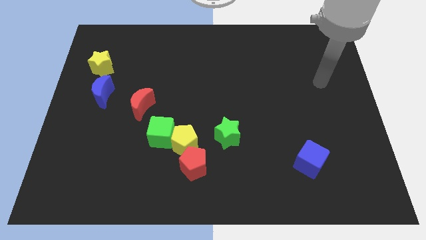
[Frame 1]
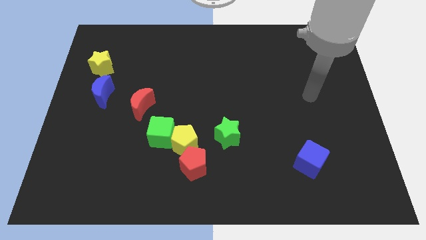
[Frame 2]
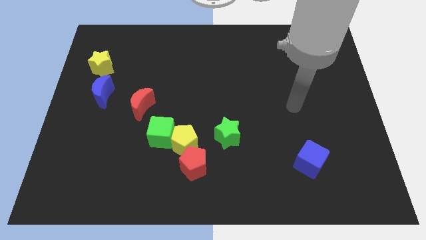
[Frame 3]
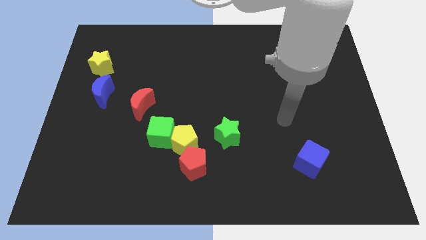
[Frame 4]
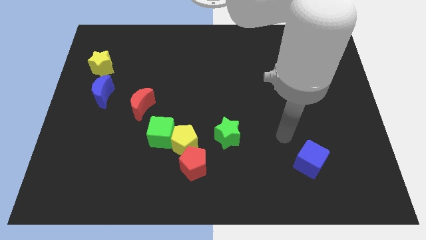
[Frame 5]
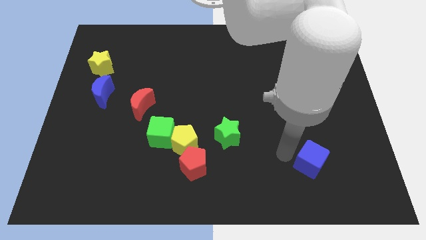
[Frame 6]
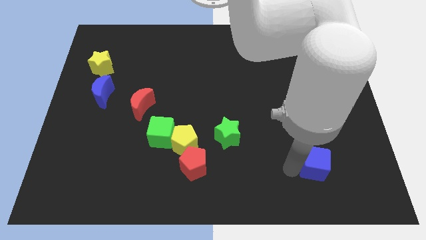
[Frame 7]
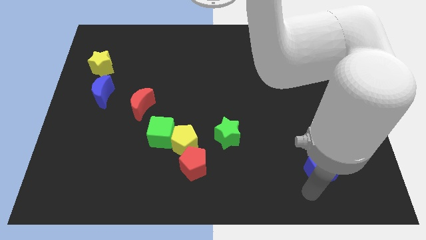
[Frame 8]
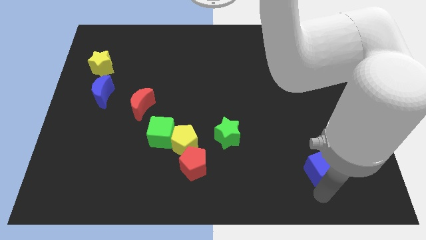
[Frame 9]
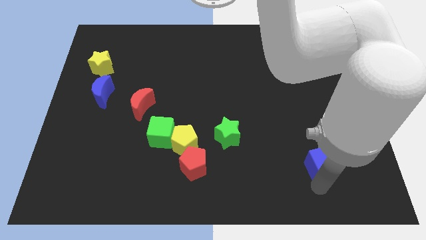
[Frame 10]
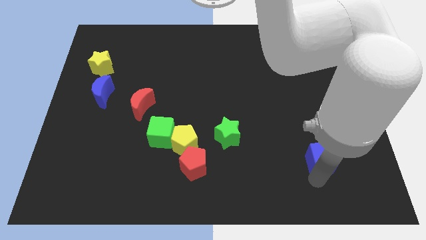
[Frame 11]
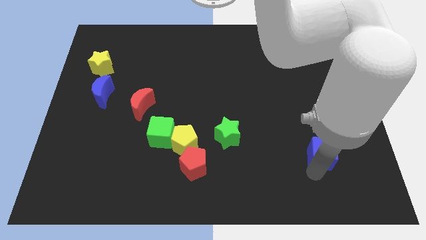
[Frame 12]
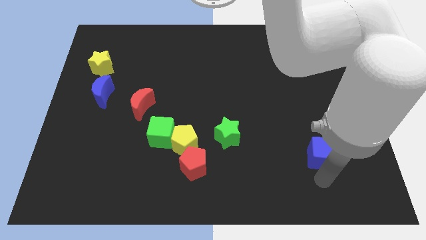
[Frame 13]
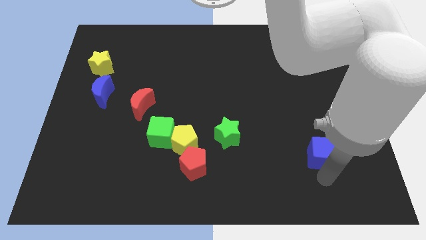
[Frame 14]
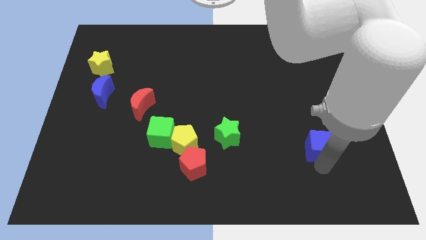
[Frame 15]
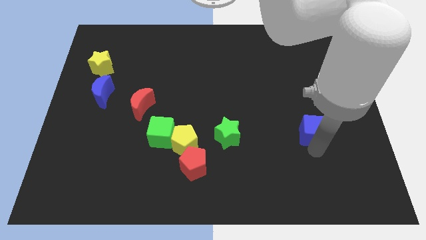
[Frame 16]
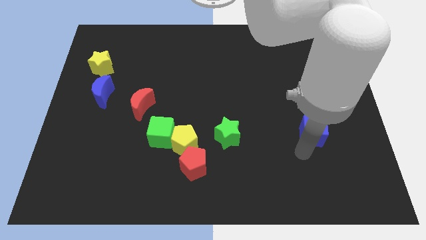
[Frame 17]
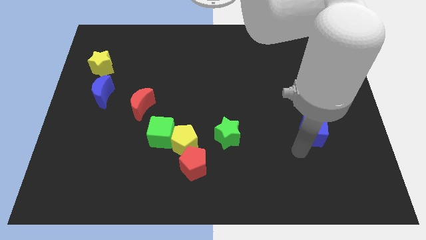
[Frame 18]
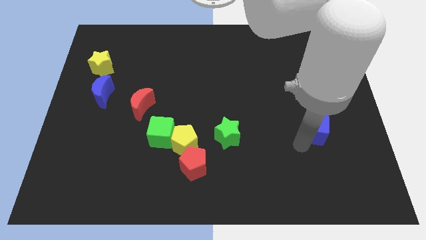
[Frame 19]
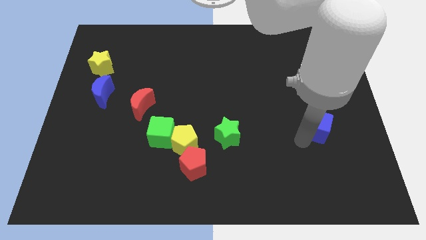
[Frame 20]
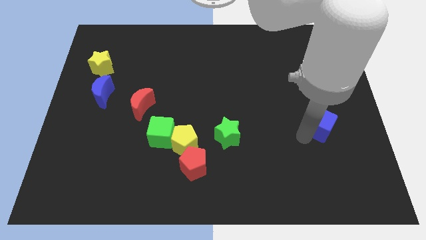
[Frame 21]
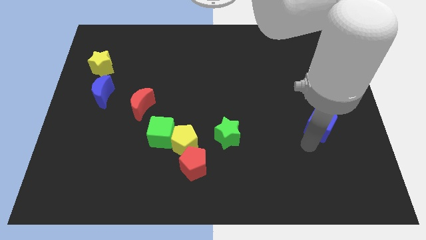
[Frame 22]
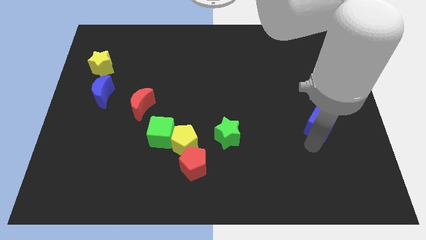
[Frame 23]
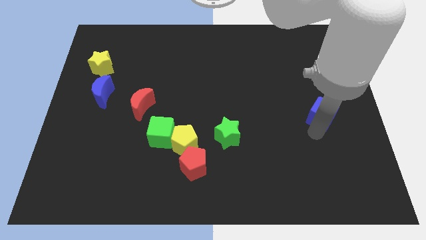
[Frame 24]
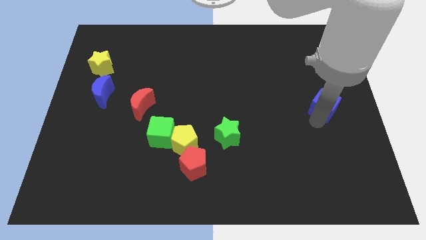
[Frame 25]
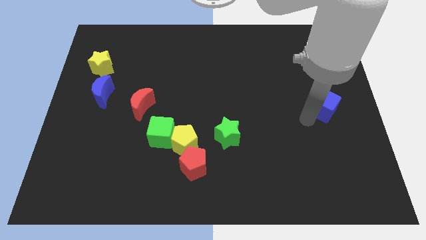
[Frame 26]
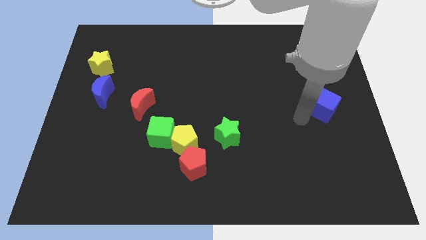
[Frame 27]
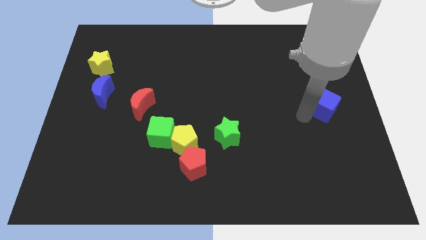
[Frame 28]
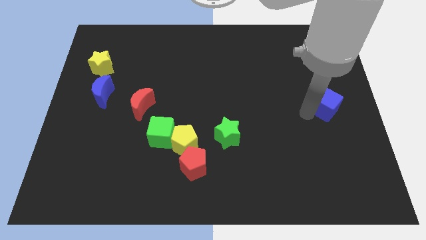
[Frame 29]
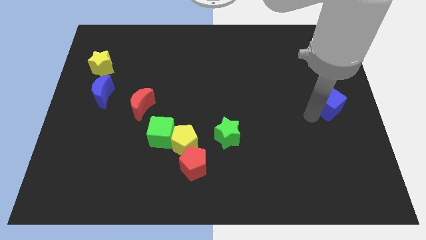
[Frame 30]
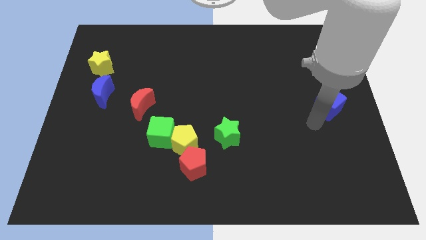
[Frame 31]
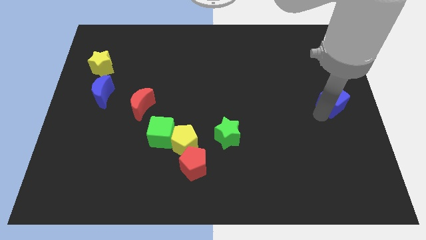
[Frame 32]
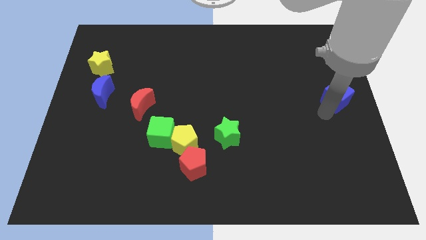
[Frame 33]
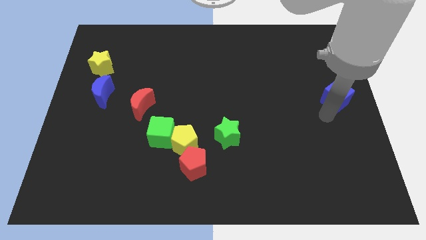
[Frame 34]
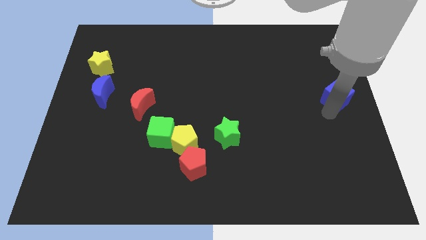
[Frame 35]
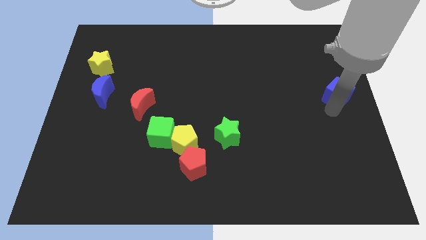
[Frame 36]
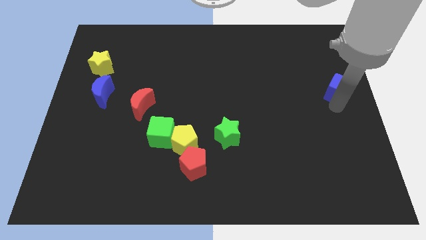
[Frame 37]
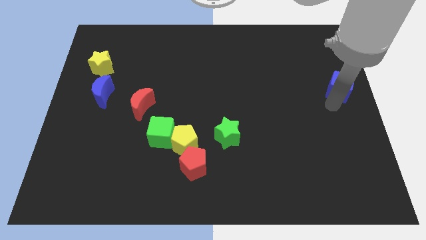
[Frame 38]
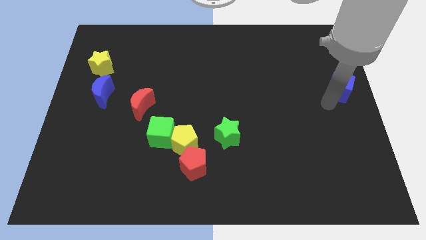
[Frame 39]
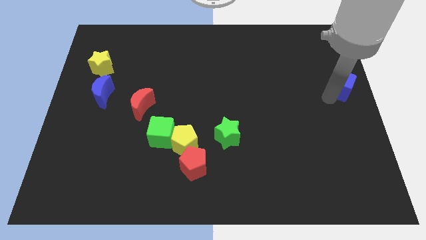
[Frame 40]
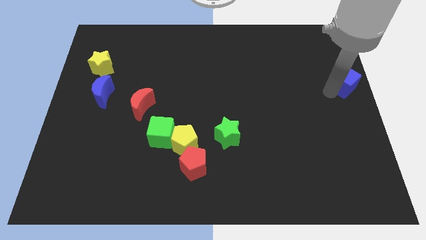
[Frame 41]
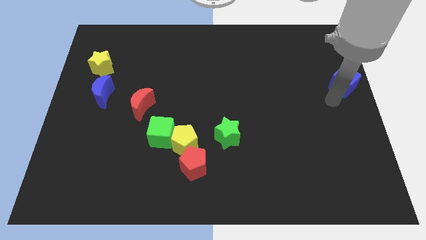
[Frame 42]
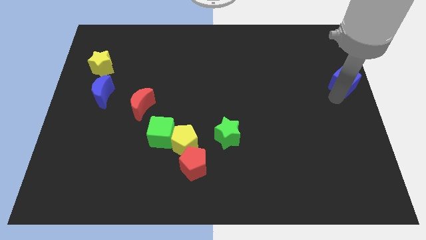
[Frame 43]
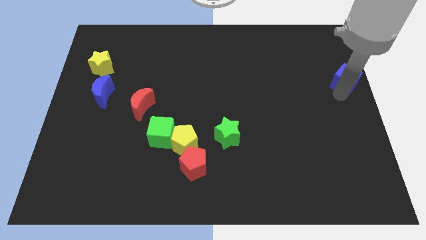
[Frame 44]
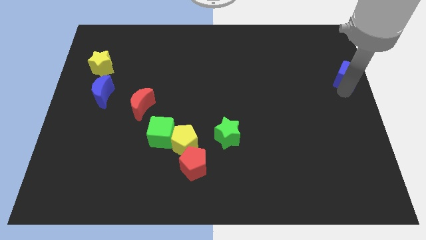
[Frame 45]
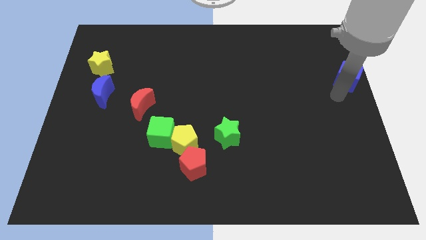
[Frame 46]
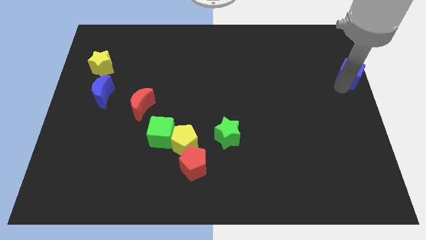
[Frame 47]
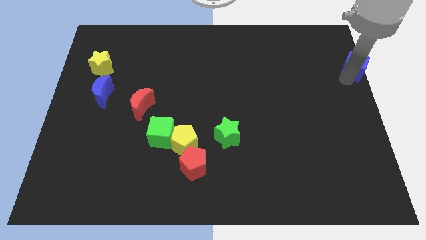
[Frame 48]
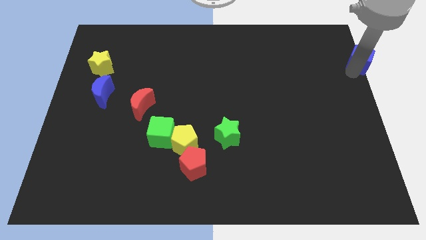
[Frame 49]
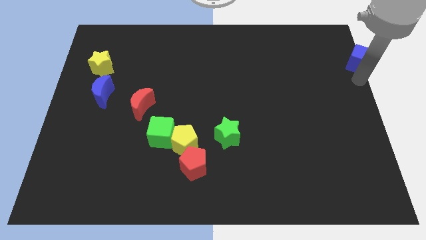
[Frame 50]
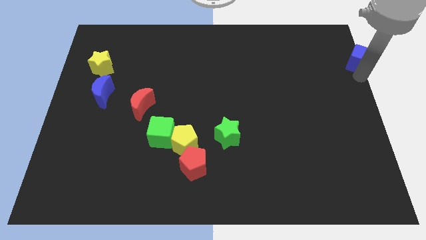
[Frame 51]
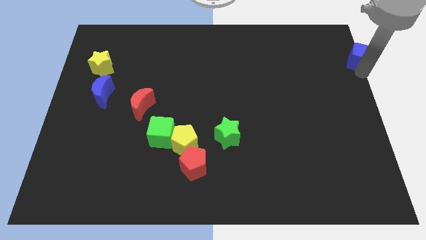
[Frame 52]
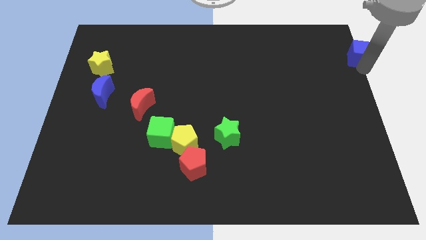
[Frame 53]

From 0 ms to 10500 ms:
push the blue cube to the top right corner
